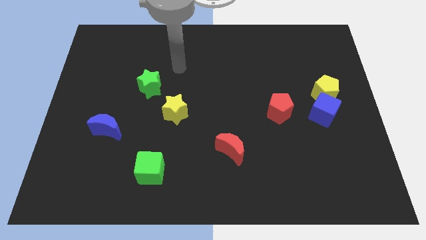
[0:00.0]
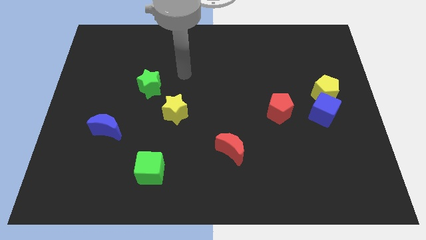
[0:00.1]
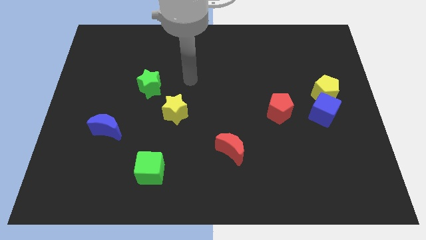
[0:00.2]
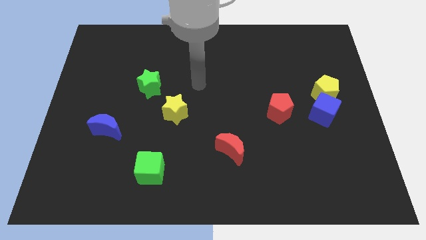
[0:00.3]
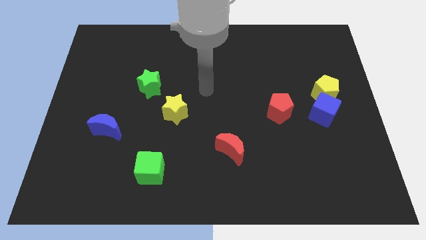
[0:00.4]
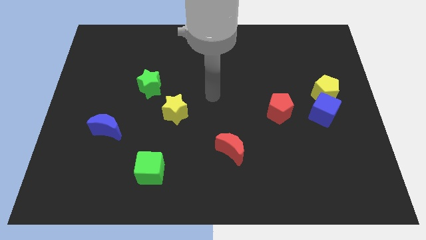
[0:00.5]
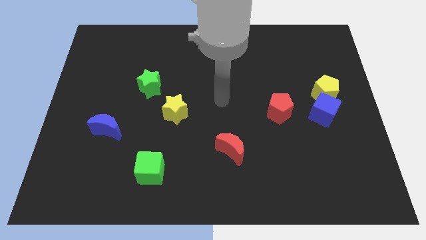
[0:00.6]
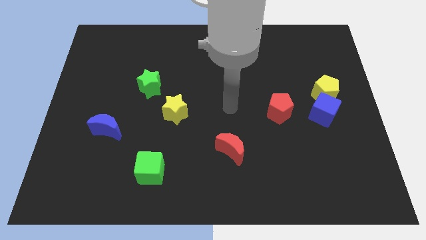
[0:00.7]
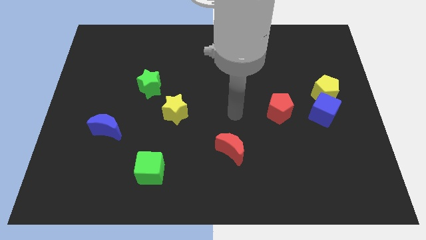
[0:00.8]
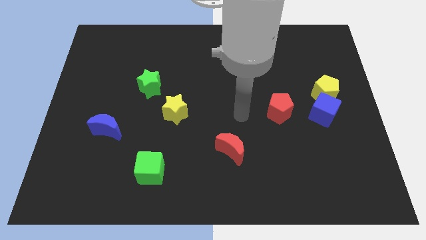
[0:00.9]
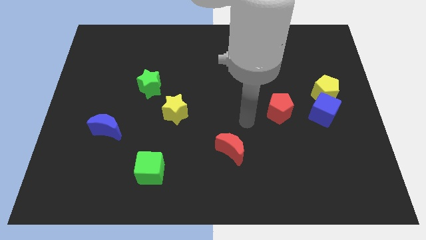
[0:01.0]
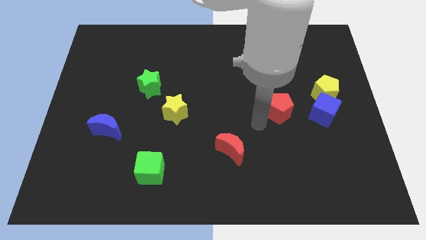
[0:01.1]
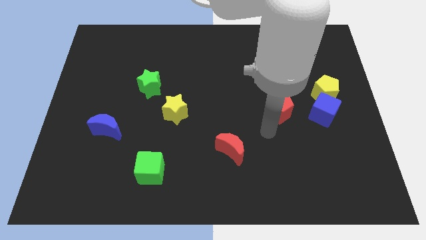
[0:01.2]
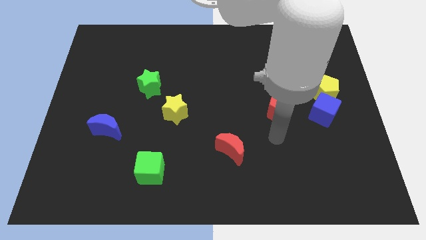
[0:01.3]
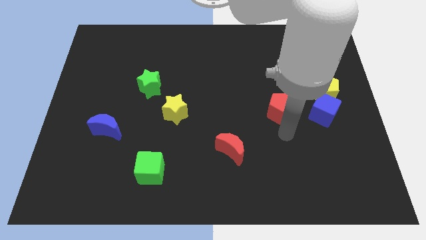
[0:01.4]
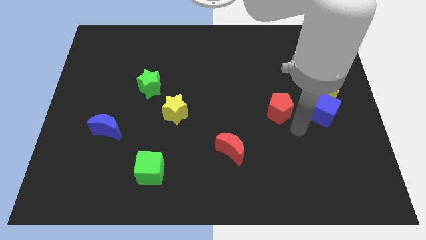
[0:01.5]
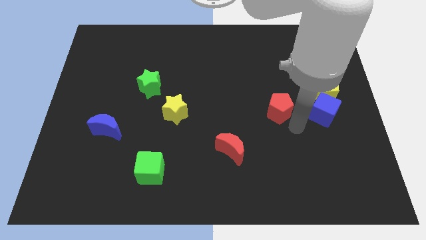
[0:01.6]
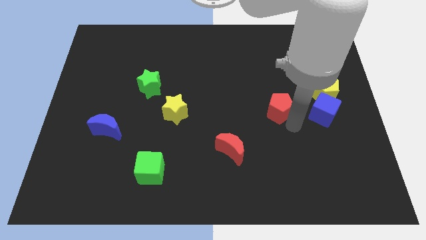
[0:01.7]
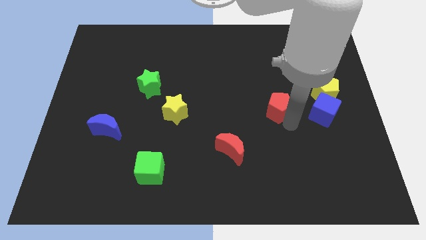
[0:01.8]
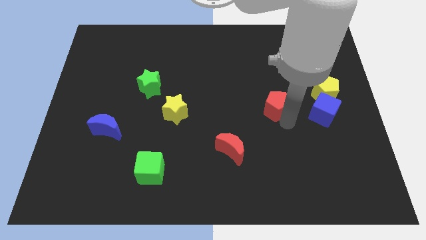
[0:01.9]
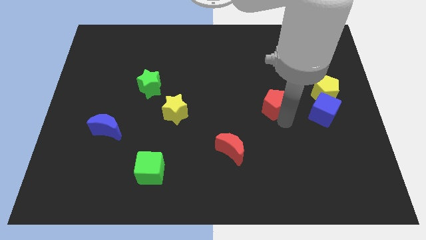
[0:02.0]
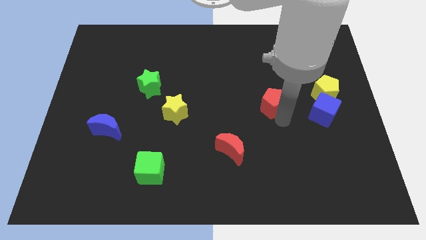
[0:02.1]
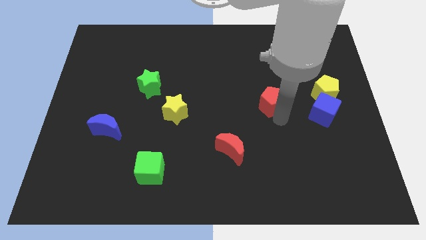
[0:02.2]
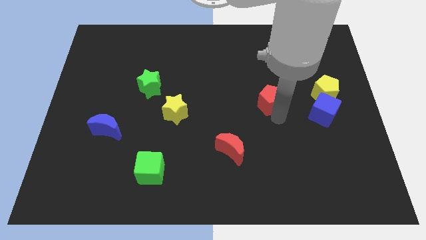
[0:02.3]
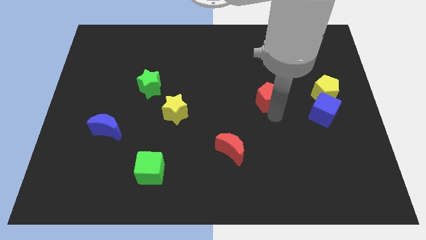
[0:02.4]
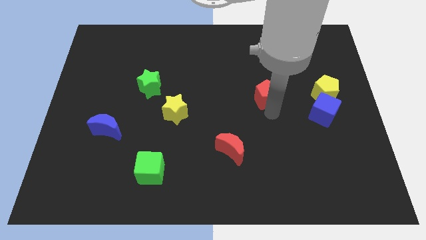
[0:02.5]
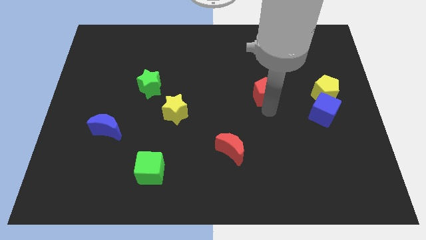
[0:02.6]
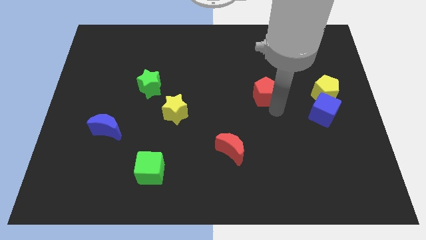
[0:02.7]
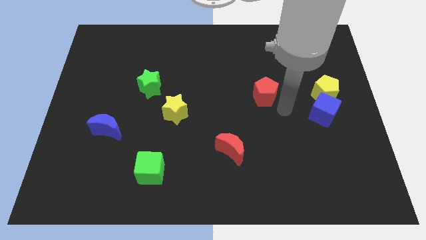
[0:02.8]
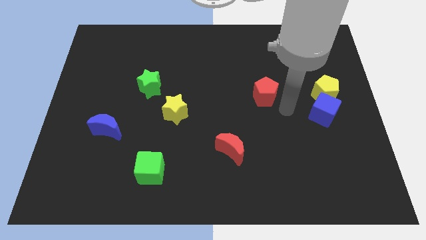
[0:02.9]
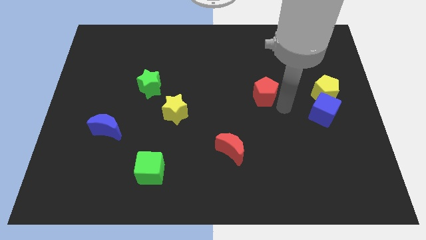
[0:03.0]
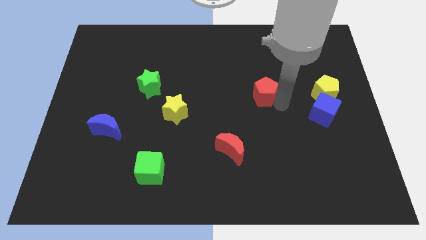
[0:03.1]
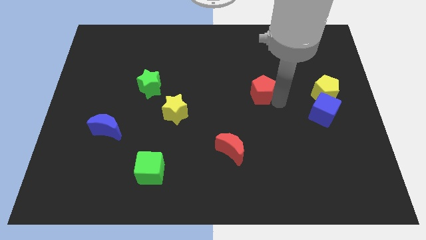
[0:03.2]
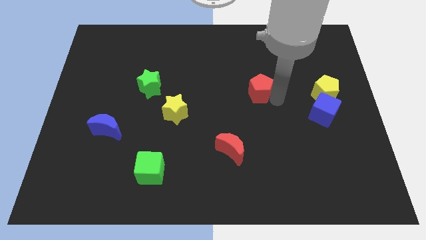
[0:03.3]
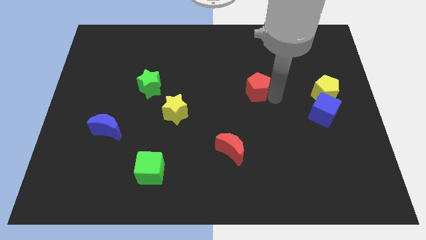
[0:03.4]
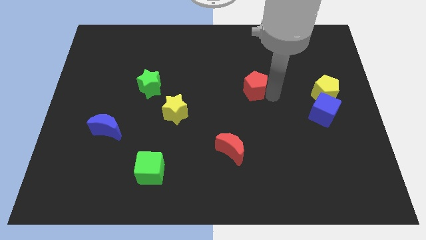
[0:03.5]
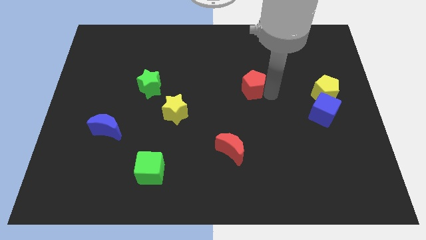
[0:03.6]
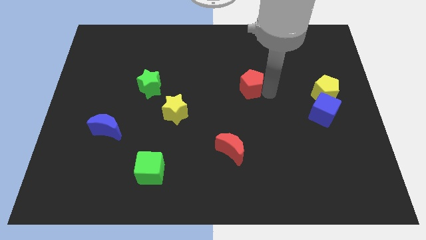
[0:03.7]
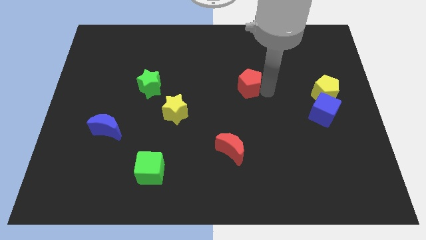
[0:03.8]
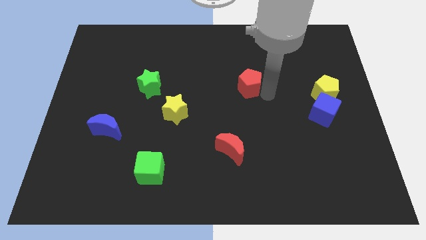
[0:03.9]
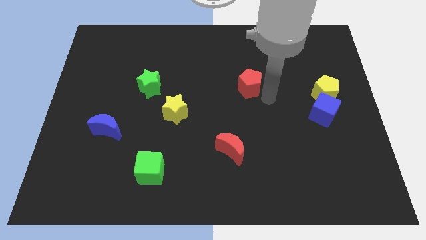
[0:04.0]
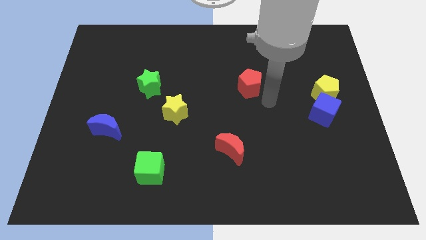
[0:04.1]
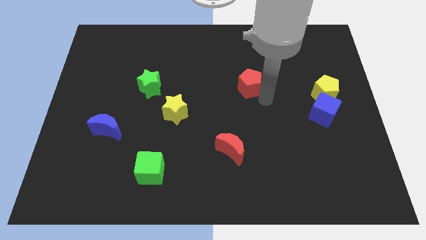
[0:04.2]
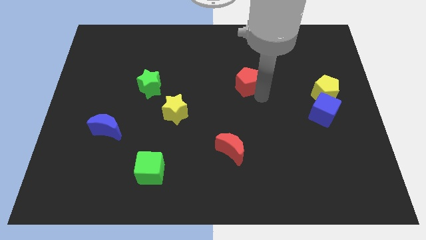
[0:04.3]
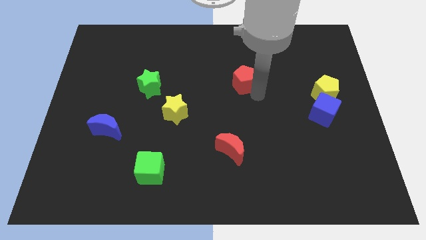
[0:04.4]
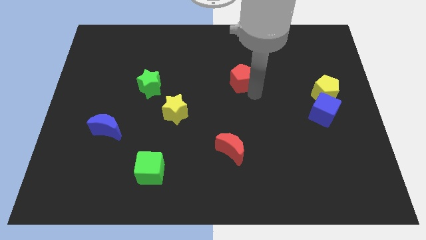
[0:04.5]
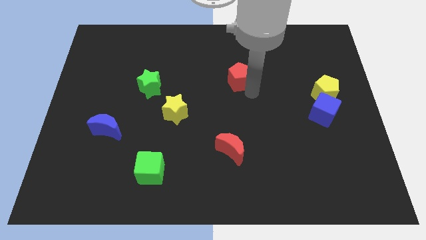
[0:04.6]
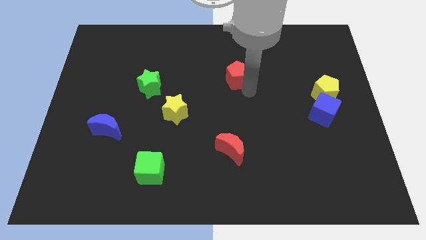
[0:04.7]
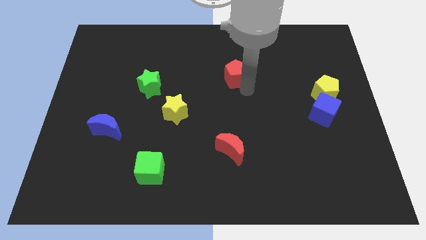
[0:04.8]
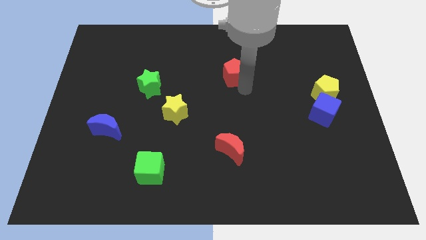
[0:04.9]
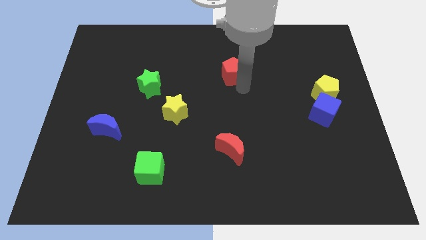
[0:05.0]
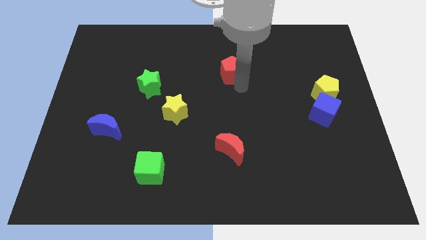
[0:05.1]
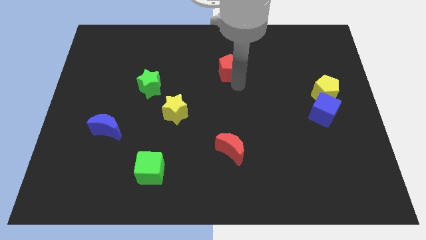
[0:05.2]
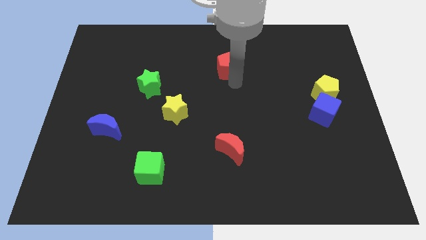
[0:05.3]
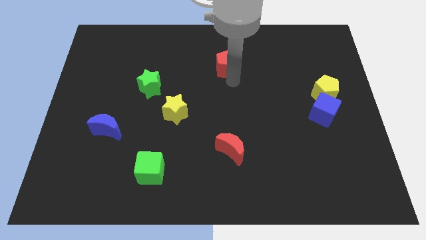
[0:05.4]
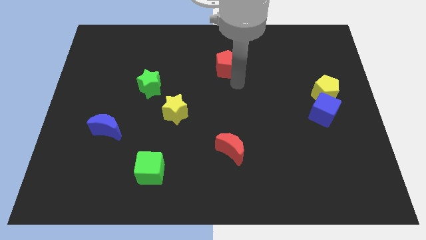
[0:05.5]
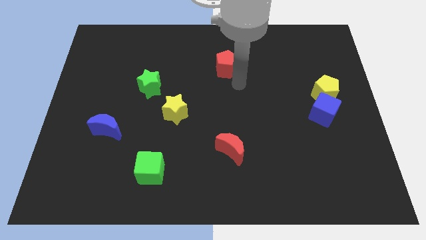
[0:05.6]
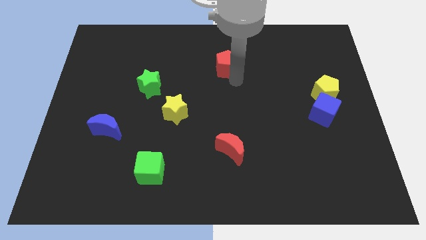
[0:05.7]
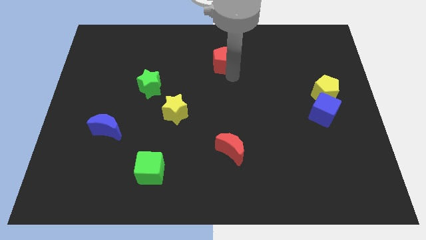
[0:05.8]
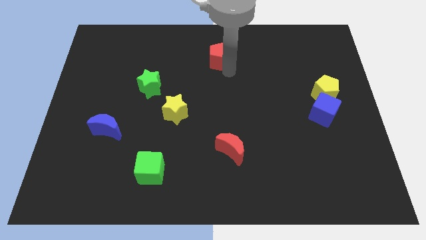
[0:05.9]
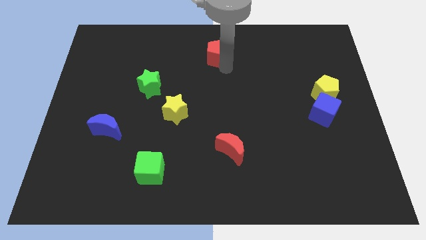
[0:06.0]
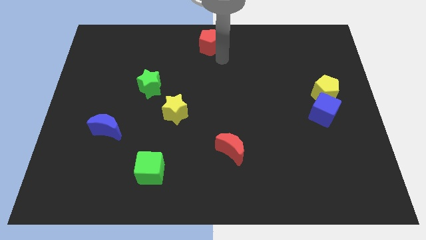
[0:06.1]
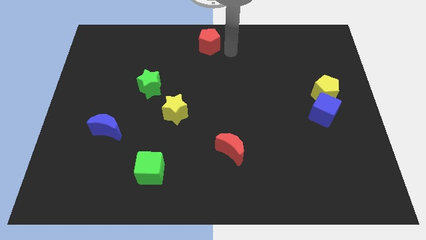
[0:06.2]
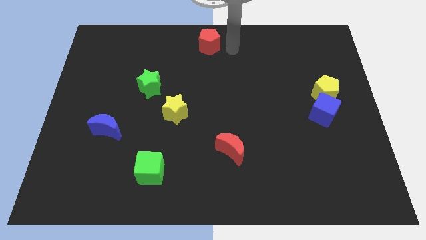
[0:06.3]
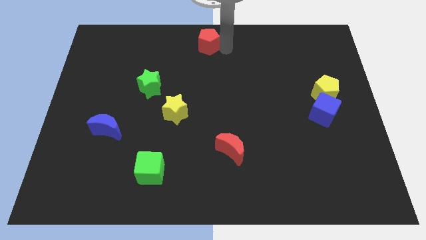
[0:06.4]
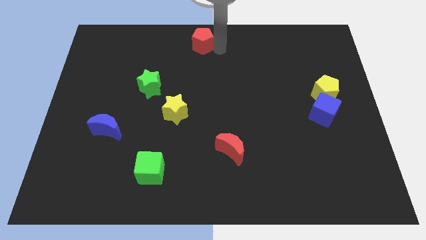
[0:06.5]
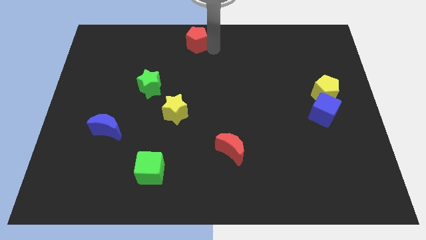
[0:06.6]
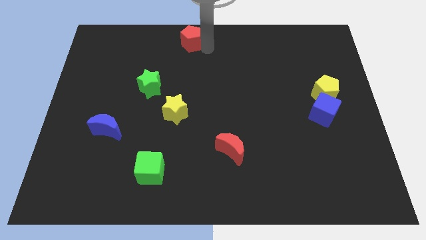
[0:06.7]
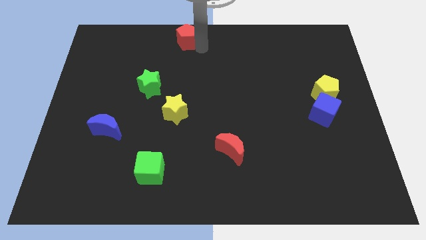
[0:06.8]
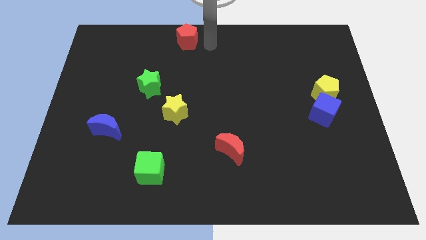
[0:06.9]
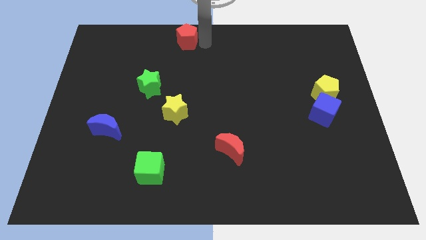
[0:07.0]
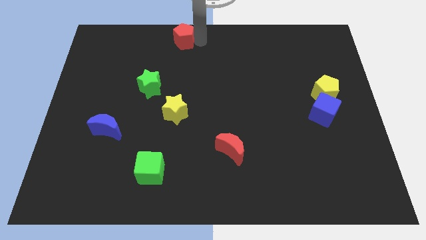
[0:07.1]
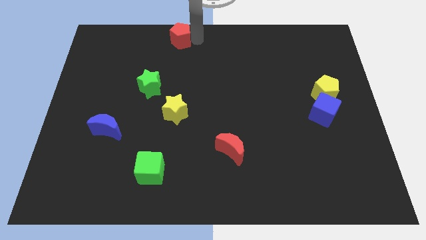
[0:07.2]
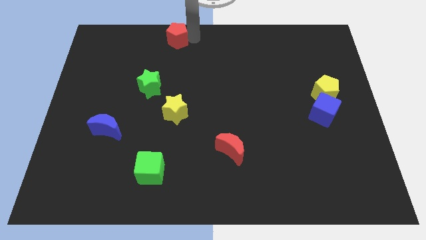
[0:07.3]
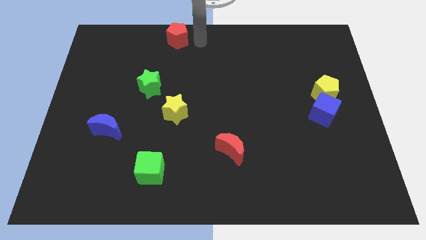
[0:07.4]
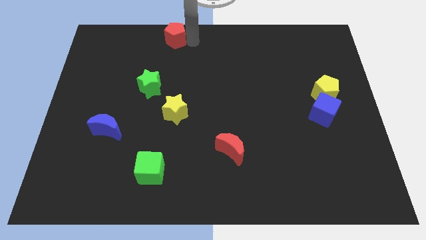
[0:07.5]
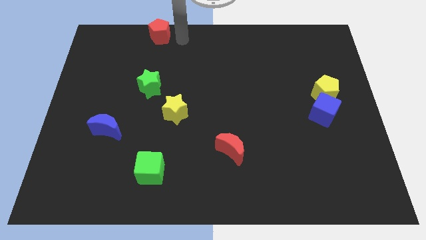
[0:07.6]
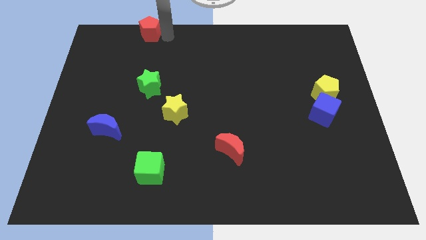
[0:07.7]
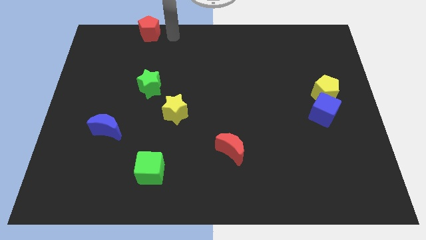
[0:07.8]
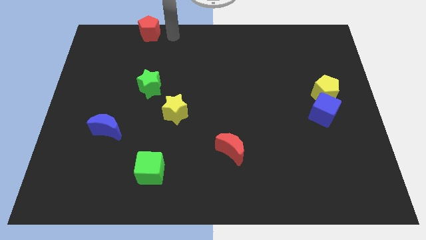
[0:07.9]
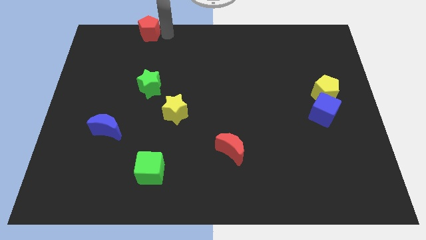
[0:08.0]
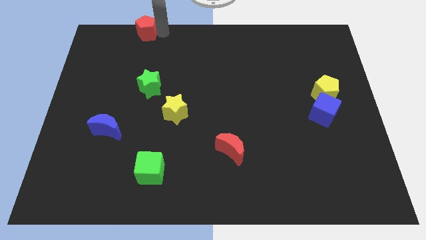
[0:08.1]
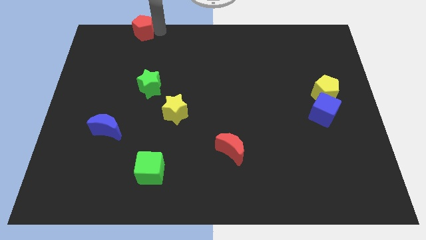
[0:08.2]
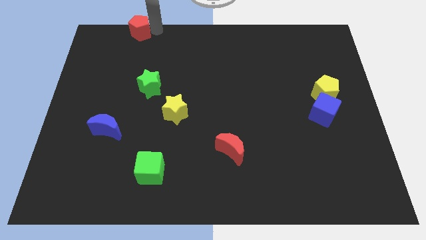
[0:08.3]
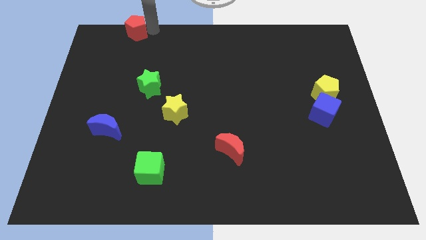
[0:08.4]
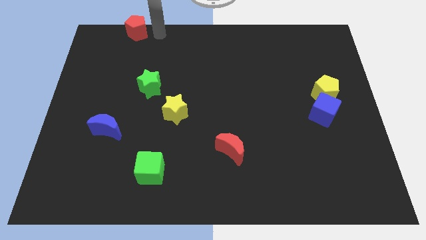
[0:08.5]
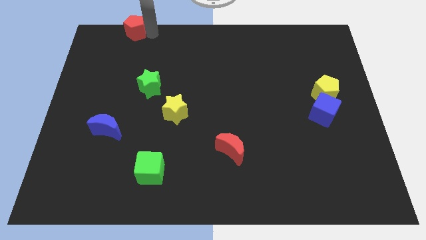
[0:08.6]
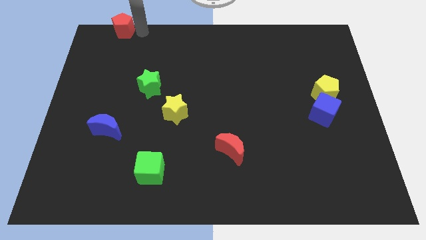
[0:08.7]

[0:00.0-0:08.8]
move the red pentagon to the upper left corner
